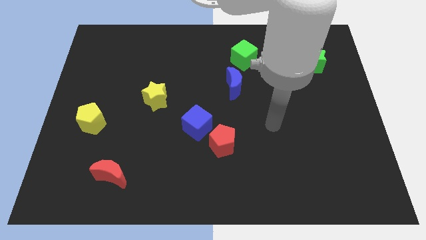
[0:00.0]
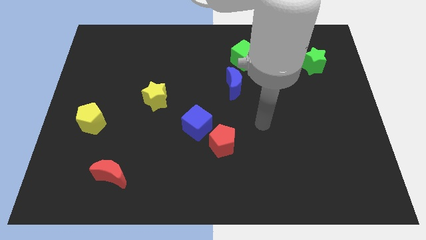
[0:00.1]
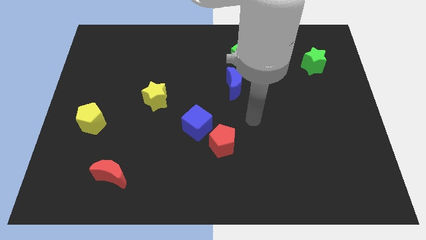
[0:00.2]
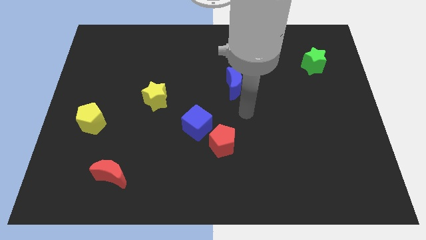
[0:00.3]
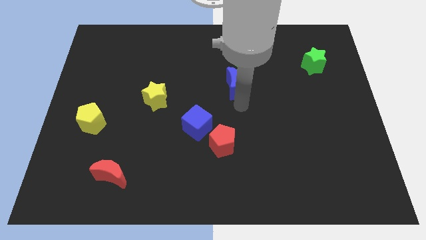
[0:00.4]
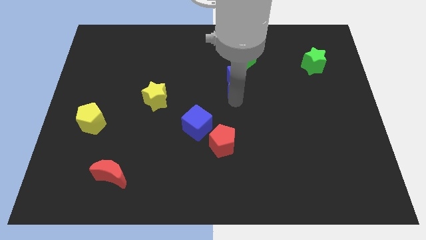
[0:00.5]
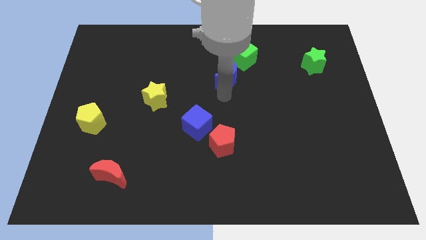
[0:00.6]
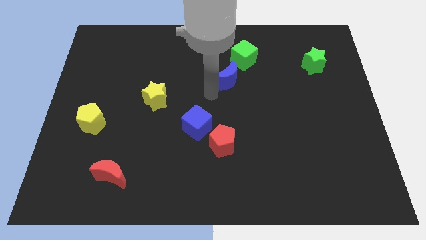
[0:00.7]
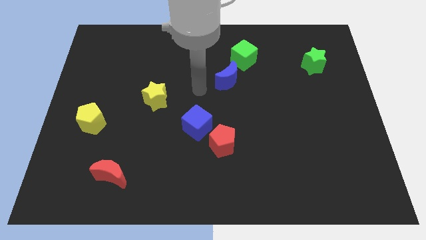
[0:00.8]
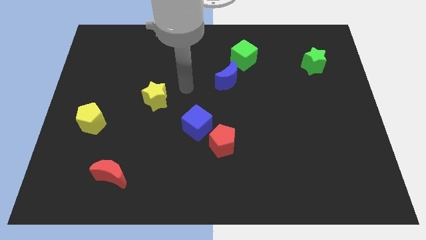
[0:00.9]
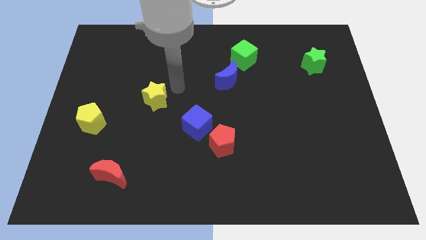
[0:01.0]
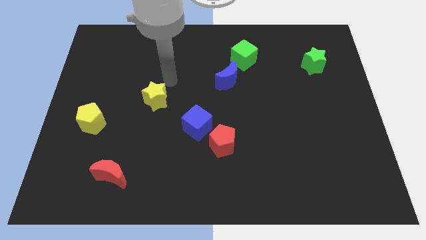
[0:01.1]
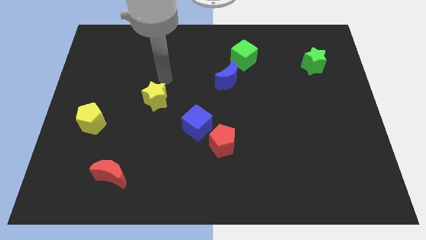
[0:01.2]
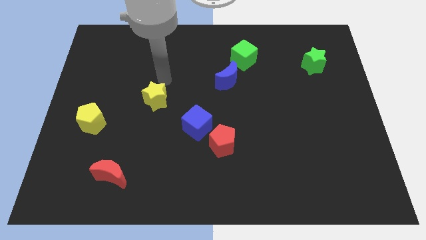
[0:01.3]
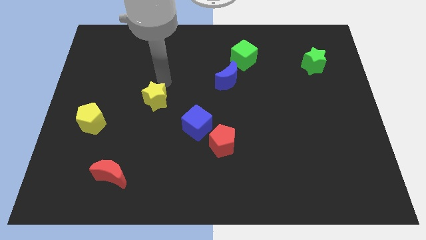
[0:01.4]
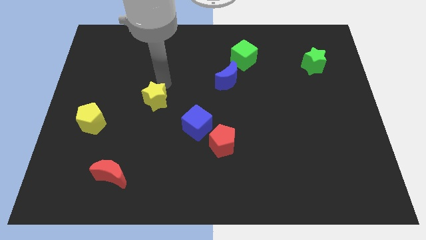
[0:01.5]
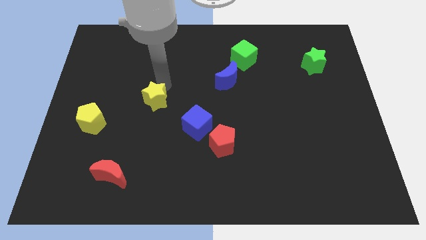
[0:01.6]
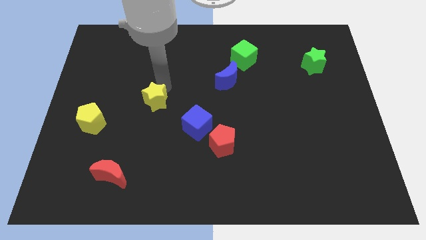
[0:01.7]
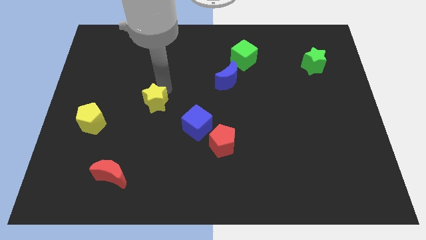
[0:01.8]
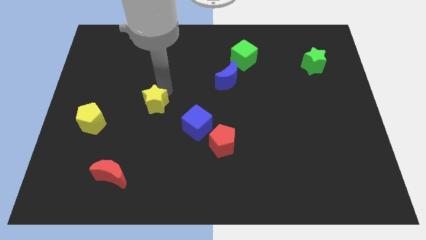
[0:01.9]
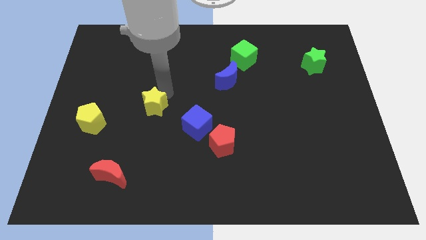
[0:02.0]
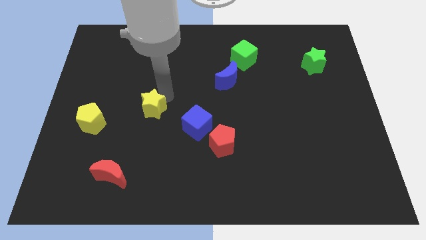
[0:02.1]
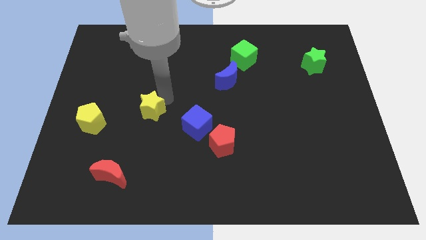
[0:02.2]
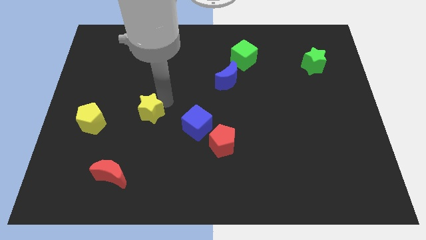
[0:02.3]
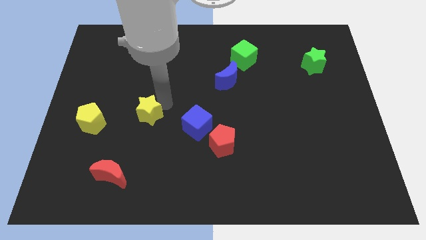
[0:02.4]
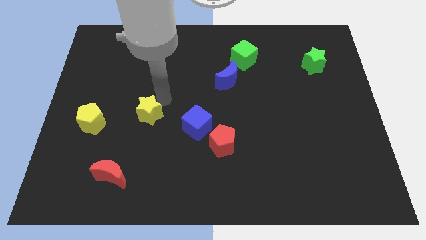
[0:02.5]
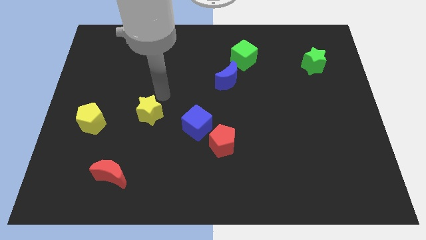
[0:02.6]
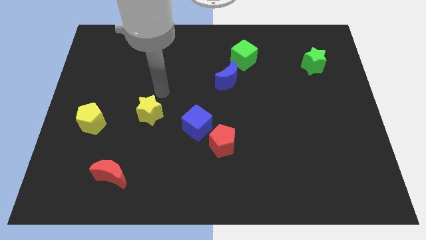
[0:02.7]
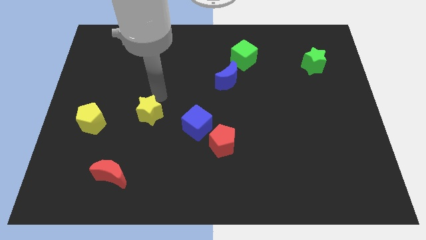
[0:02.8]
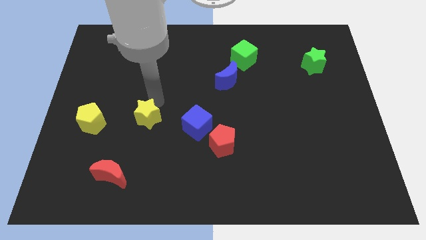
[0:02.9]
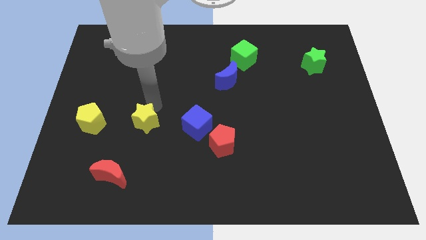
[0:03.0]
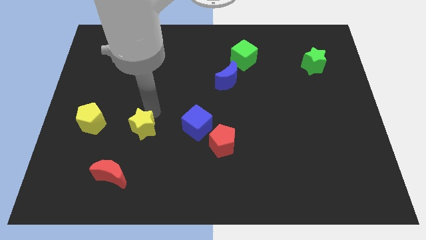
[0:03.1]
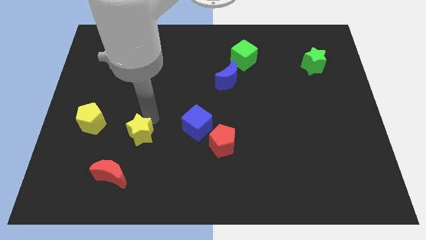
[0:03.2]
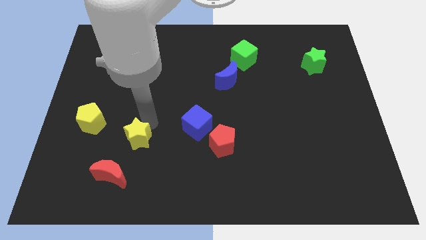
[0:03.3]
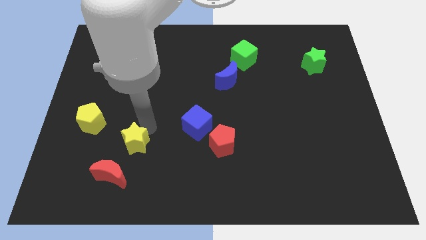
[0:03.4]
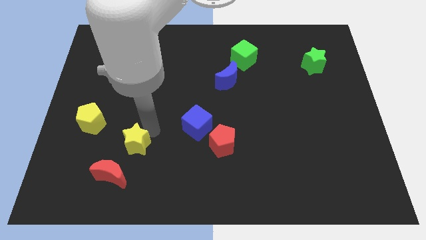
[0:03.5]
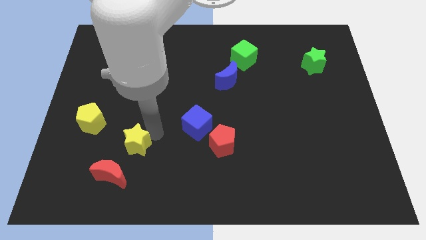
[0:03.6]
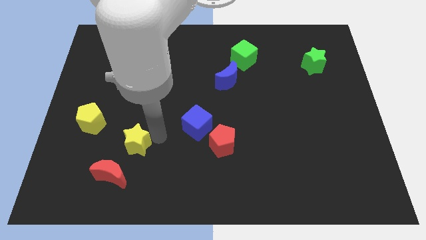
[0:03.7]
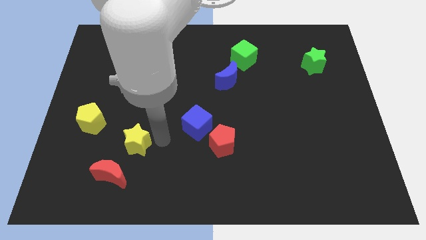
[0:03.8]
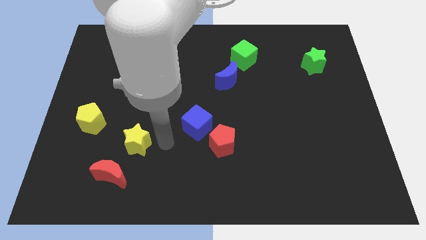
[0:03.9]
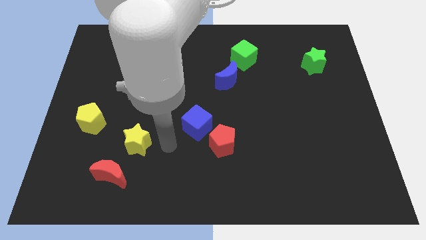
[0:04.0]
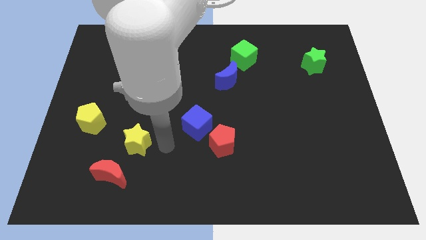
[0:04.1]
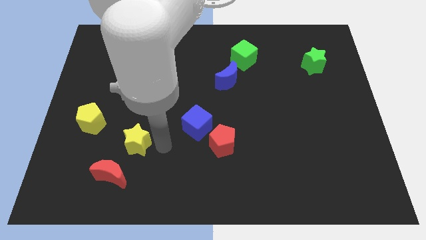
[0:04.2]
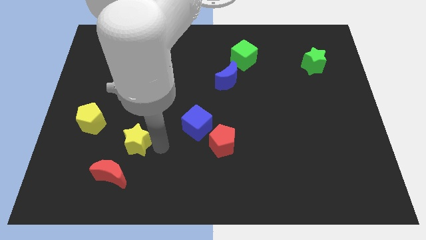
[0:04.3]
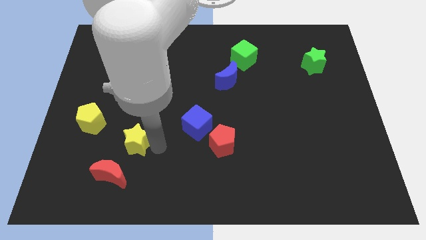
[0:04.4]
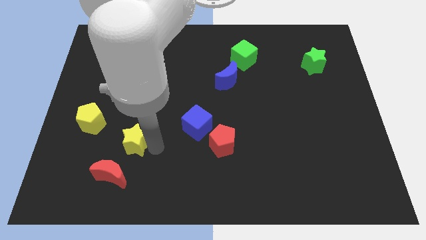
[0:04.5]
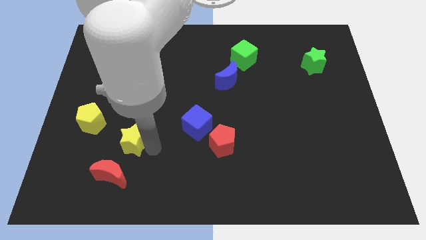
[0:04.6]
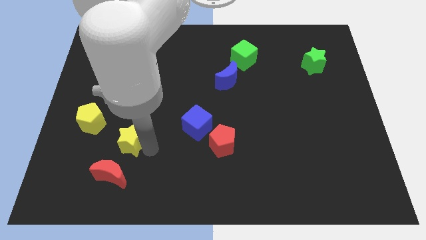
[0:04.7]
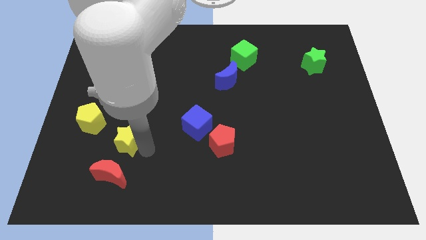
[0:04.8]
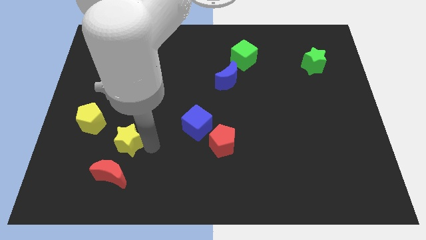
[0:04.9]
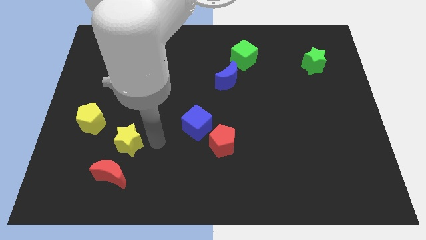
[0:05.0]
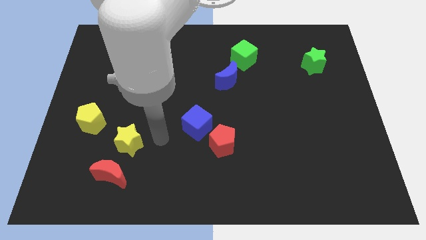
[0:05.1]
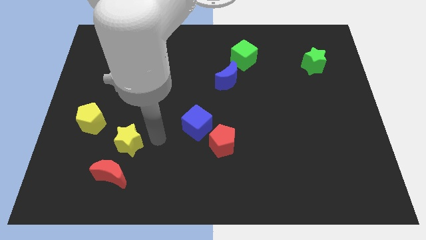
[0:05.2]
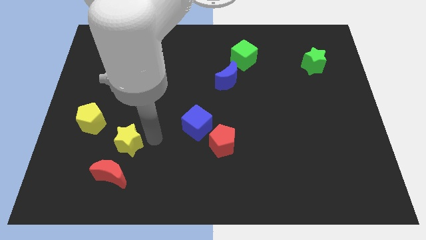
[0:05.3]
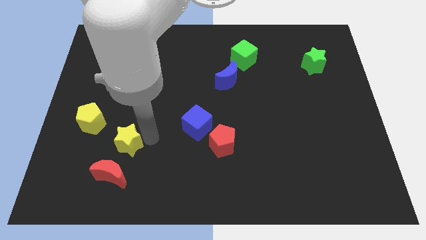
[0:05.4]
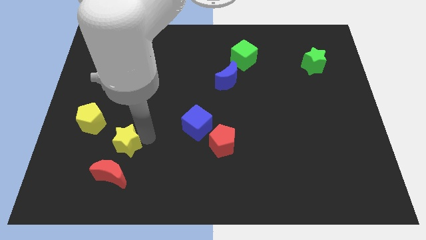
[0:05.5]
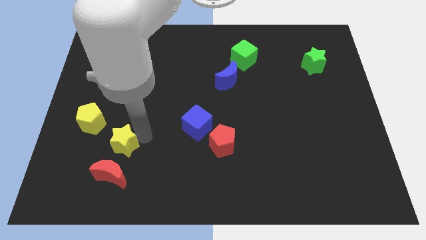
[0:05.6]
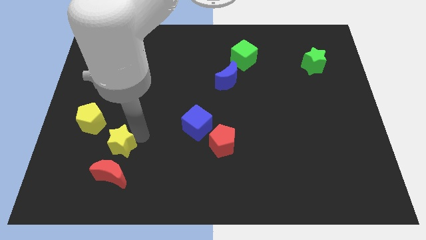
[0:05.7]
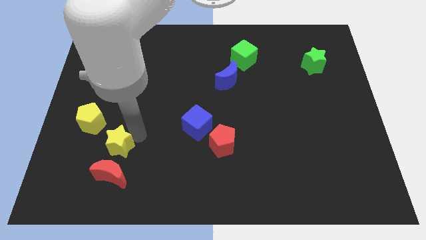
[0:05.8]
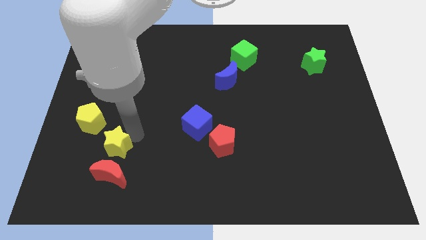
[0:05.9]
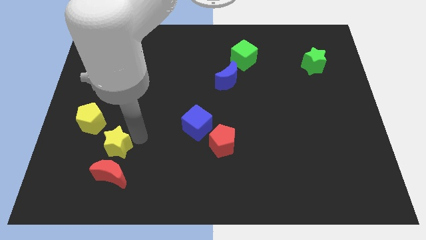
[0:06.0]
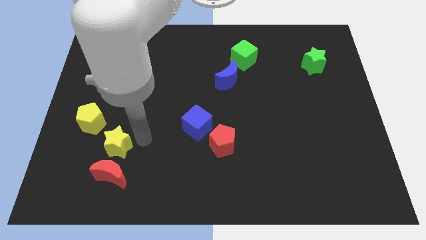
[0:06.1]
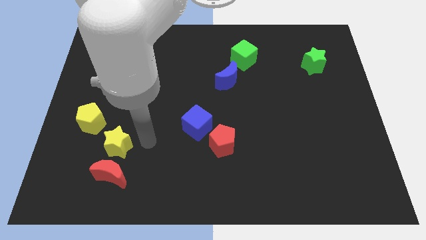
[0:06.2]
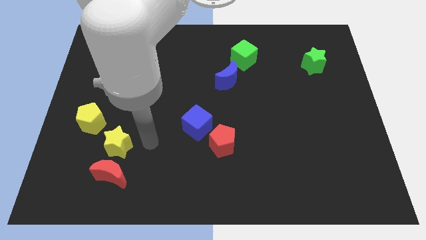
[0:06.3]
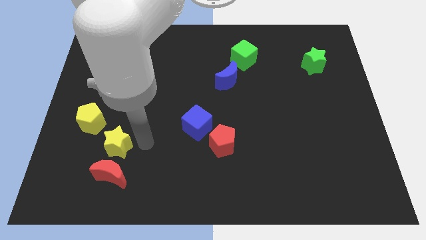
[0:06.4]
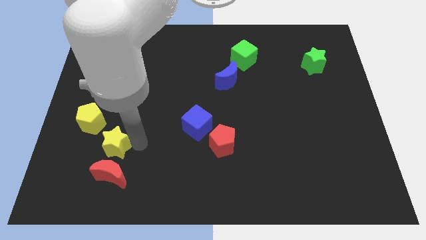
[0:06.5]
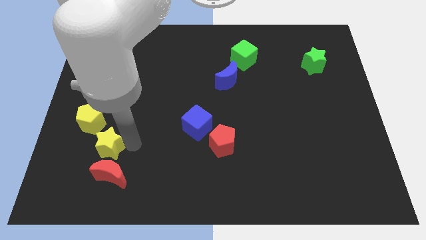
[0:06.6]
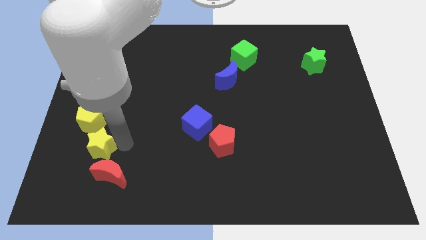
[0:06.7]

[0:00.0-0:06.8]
slide the yellow star to the bottom of the yellow pentagon
